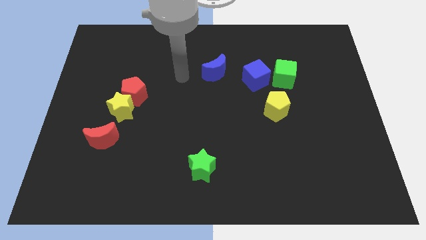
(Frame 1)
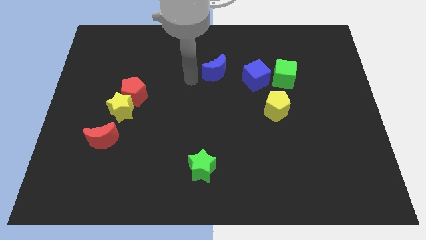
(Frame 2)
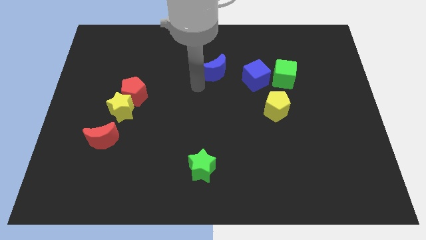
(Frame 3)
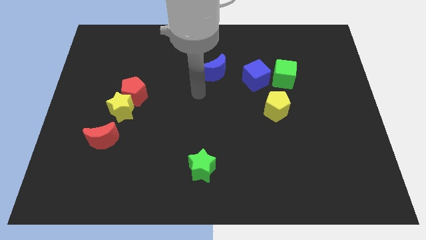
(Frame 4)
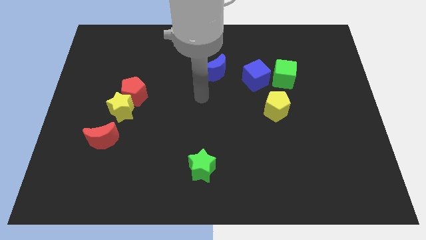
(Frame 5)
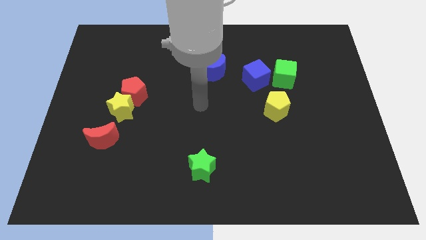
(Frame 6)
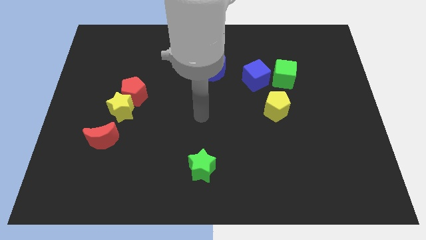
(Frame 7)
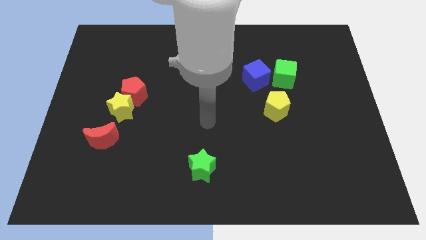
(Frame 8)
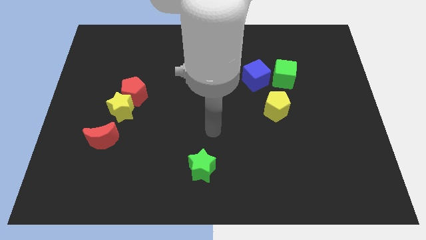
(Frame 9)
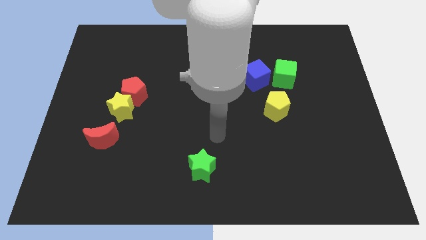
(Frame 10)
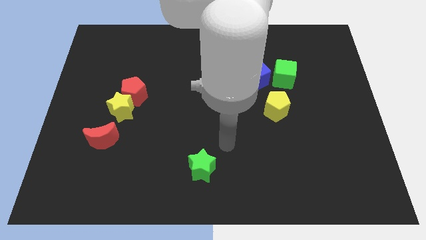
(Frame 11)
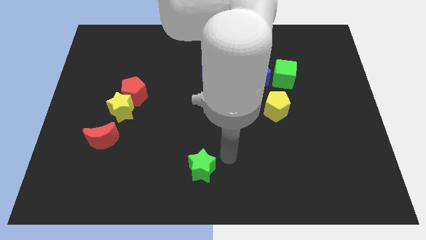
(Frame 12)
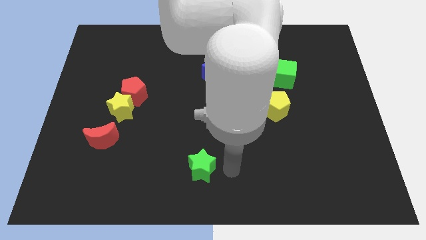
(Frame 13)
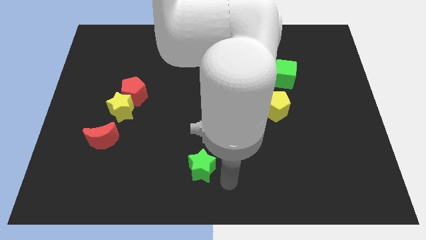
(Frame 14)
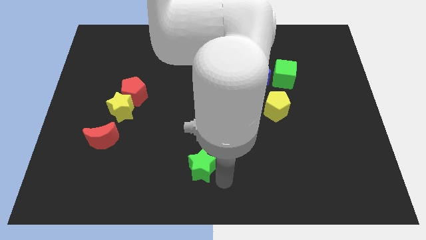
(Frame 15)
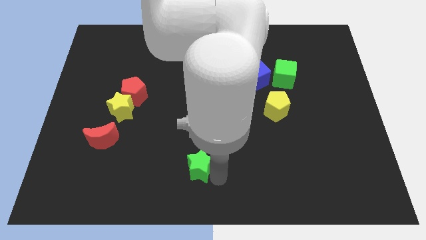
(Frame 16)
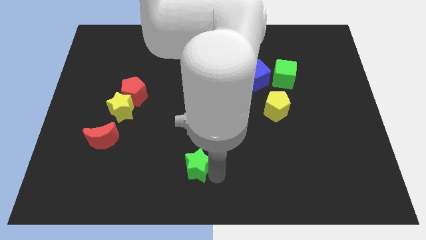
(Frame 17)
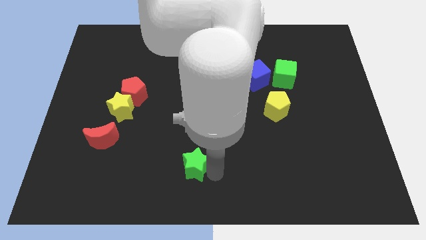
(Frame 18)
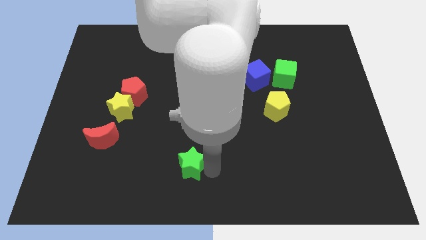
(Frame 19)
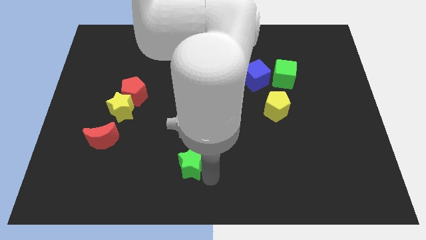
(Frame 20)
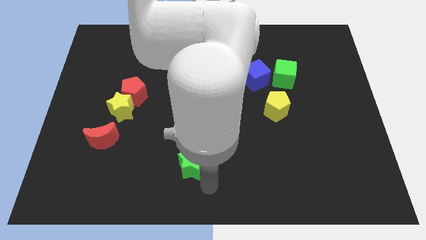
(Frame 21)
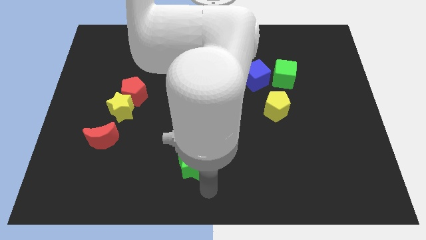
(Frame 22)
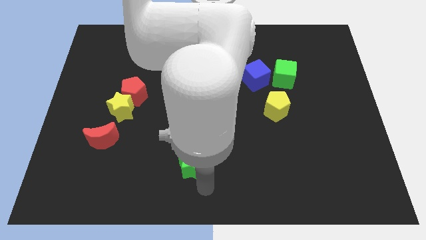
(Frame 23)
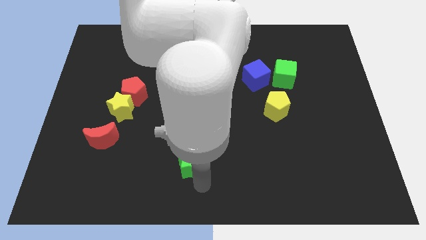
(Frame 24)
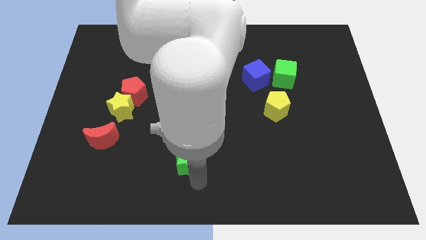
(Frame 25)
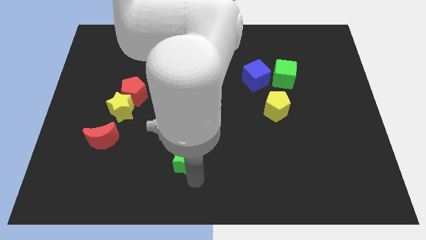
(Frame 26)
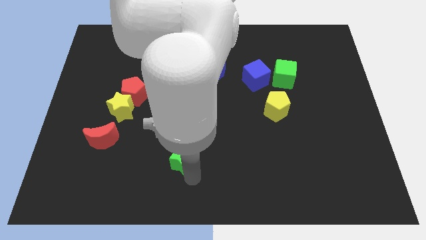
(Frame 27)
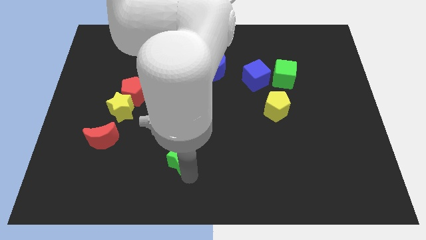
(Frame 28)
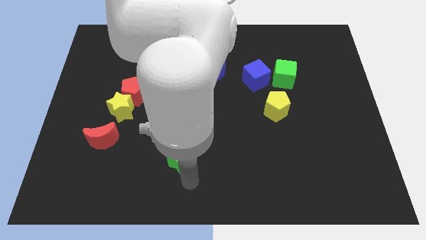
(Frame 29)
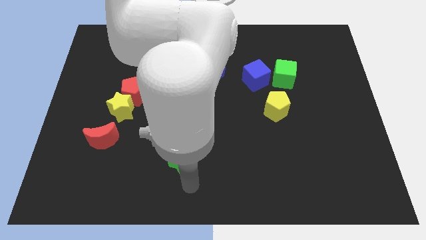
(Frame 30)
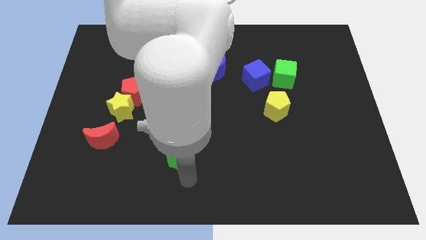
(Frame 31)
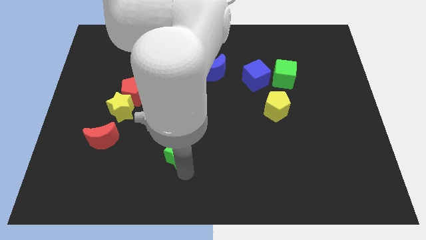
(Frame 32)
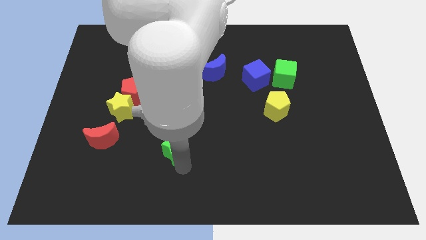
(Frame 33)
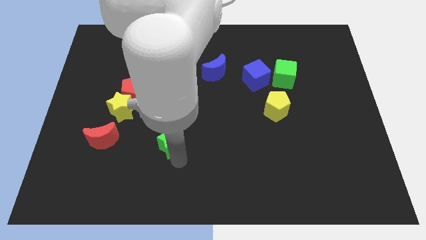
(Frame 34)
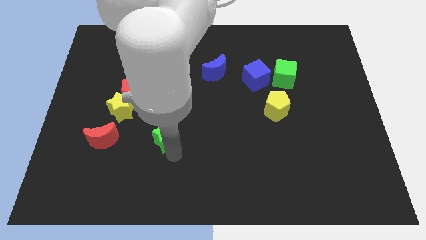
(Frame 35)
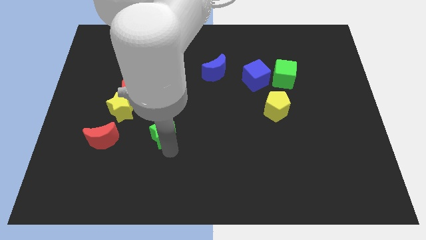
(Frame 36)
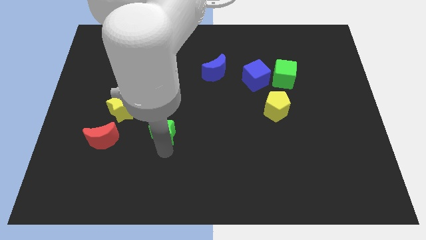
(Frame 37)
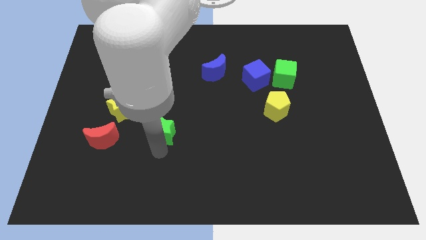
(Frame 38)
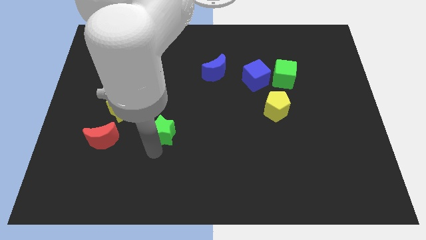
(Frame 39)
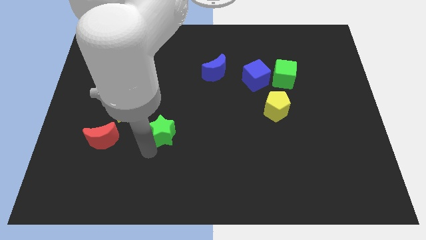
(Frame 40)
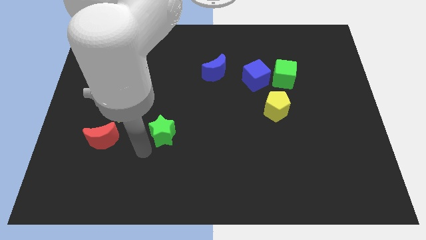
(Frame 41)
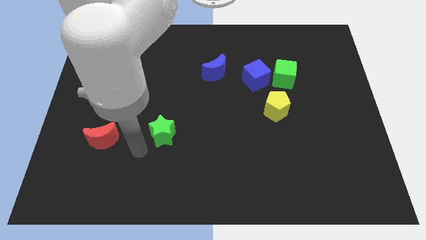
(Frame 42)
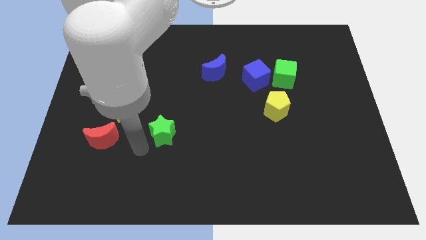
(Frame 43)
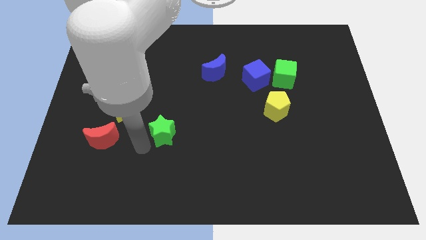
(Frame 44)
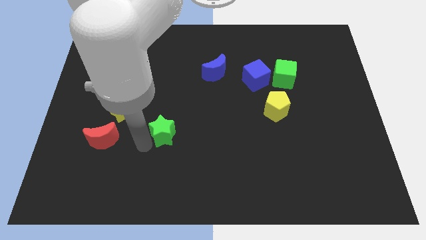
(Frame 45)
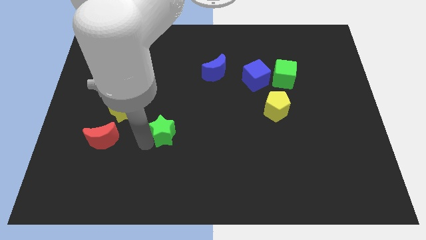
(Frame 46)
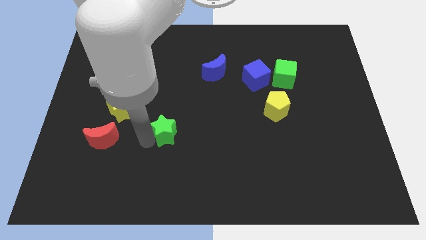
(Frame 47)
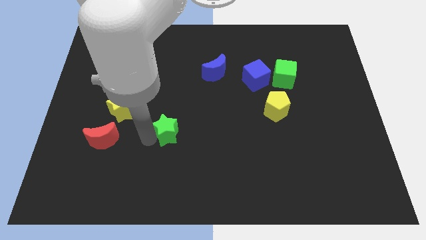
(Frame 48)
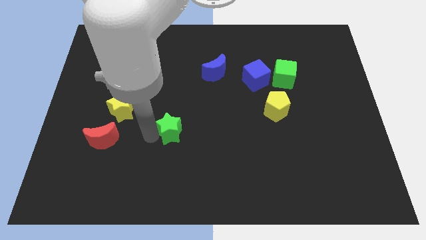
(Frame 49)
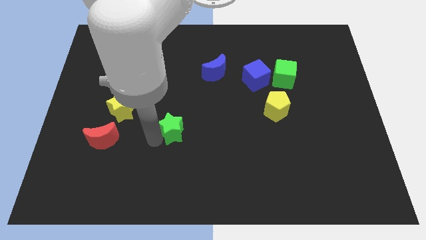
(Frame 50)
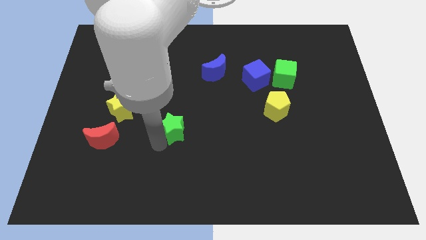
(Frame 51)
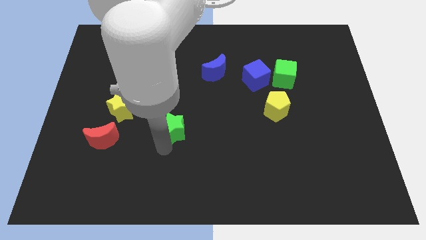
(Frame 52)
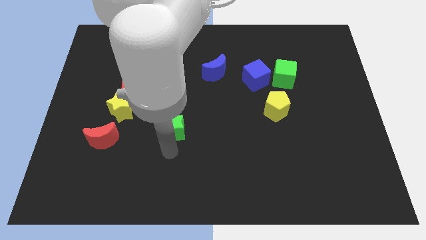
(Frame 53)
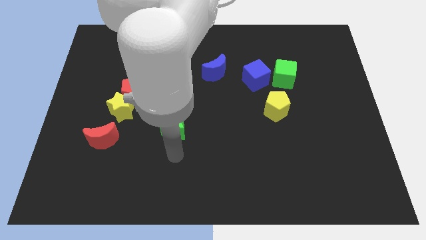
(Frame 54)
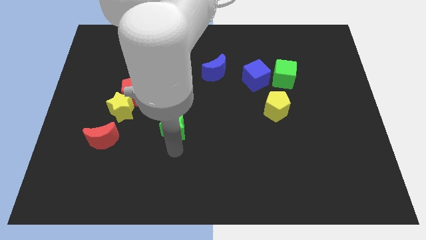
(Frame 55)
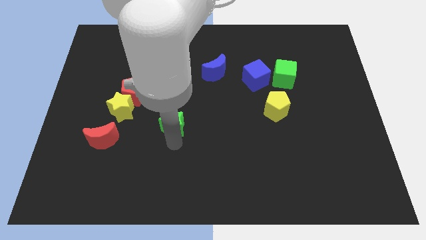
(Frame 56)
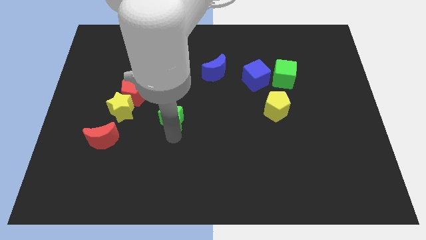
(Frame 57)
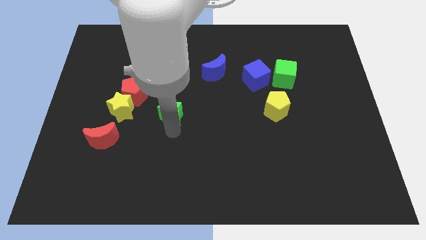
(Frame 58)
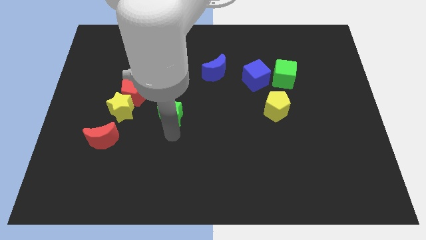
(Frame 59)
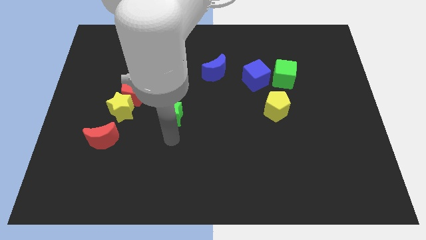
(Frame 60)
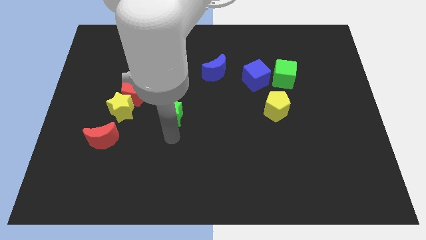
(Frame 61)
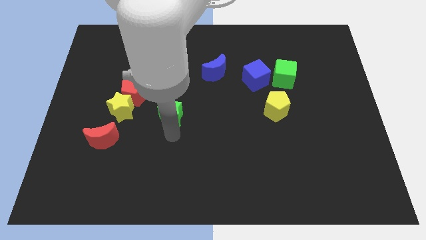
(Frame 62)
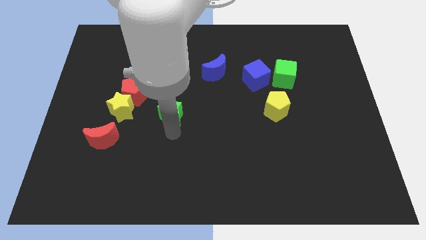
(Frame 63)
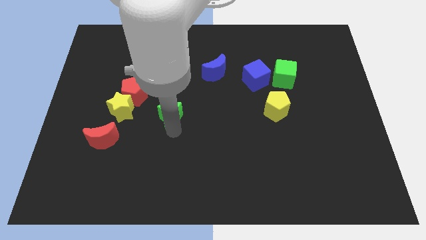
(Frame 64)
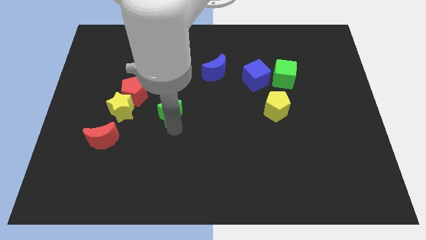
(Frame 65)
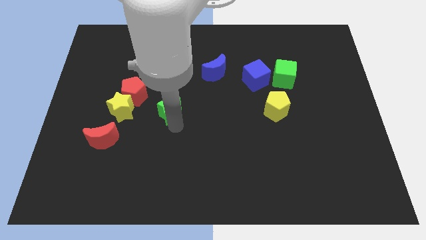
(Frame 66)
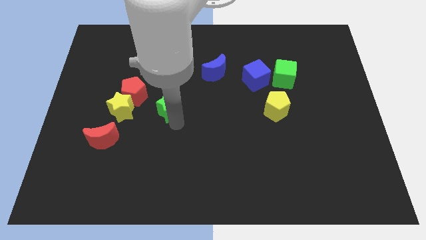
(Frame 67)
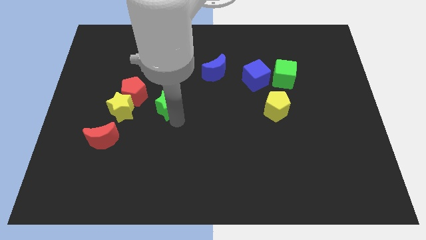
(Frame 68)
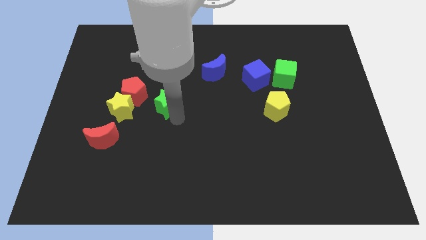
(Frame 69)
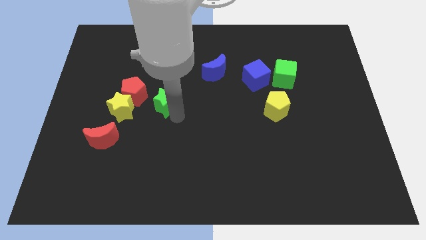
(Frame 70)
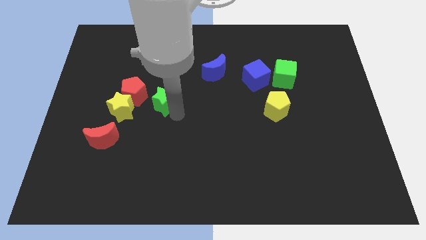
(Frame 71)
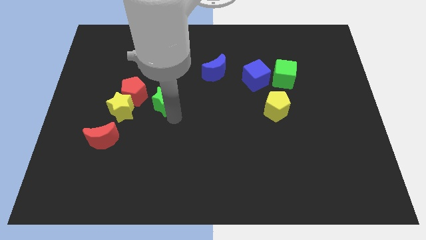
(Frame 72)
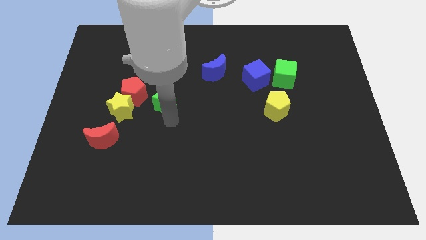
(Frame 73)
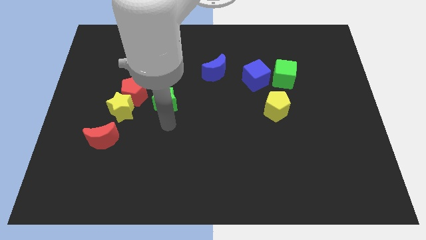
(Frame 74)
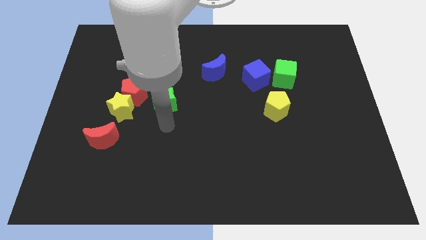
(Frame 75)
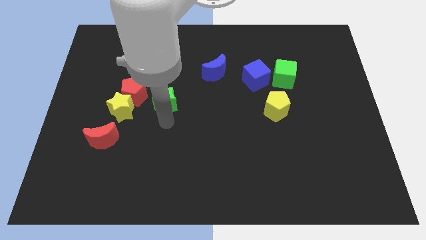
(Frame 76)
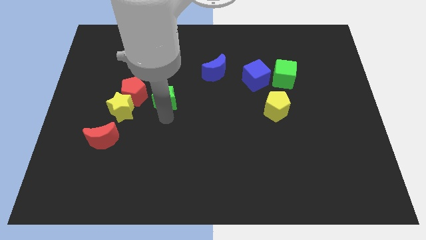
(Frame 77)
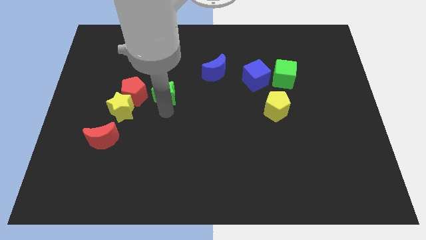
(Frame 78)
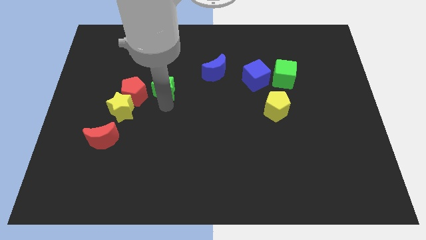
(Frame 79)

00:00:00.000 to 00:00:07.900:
push the green star to the top right of the red pentagon
